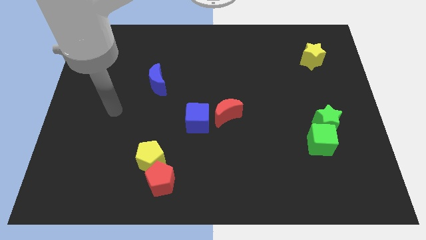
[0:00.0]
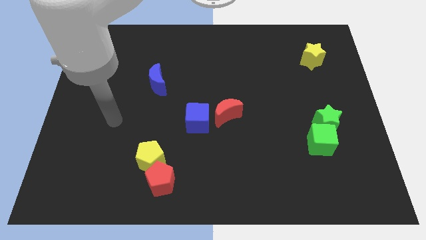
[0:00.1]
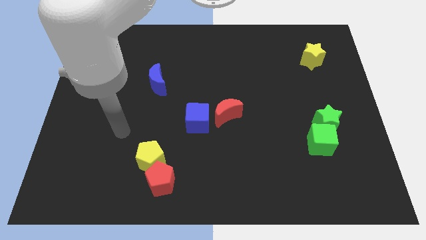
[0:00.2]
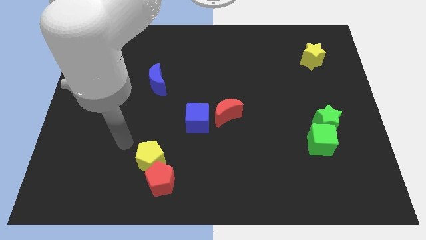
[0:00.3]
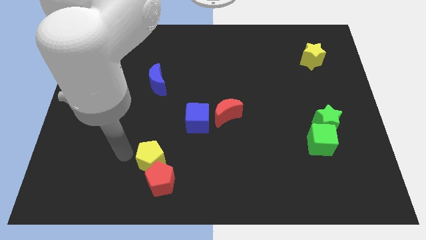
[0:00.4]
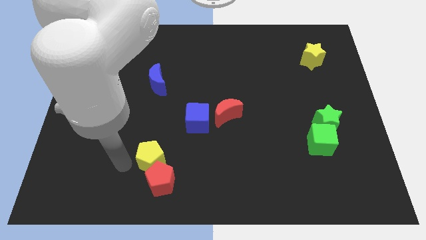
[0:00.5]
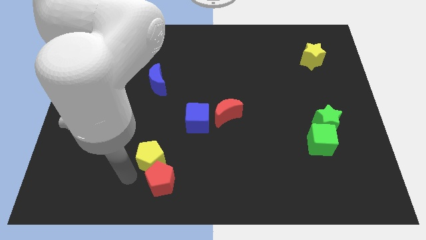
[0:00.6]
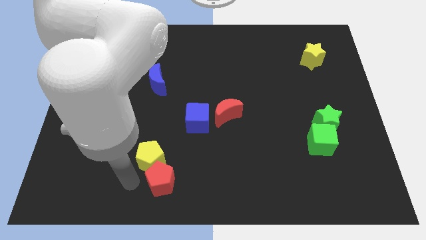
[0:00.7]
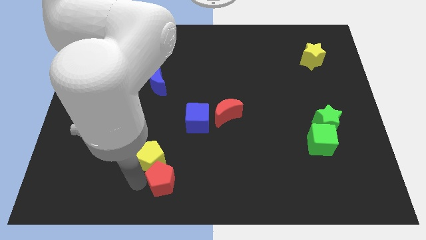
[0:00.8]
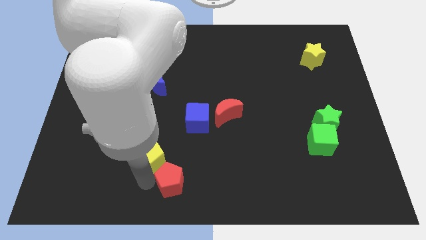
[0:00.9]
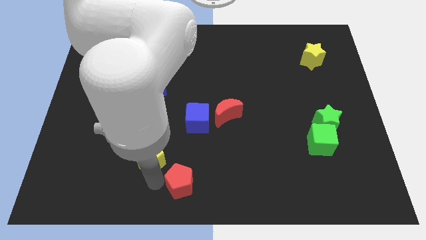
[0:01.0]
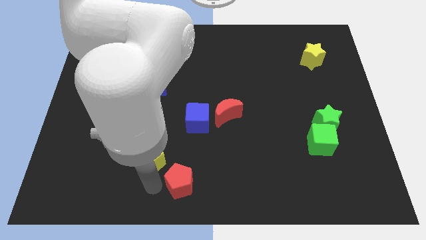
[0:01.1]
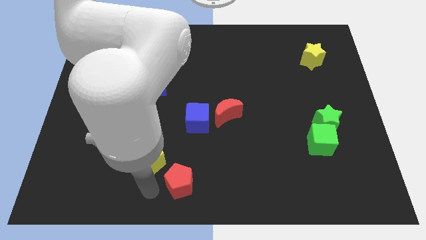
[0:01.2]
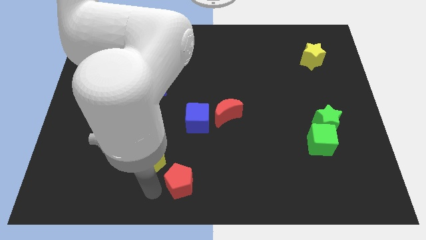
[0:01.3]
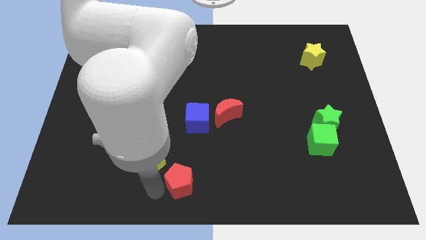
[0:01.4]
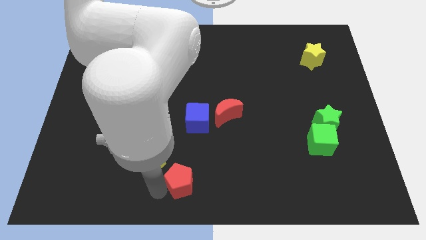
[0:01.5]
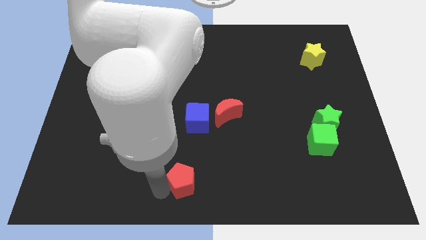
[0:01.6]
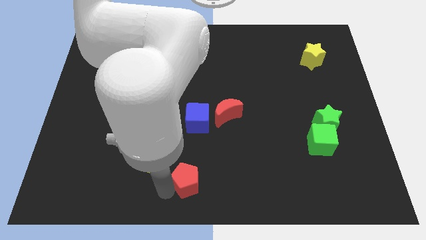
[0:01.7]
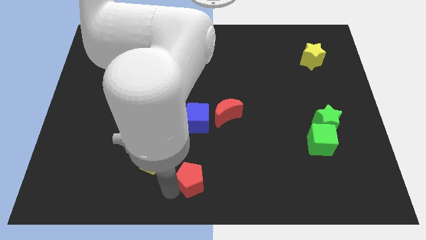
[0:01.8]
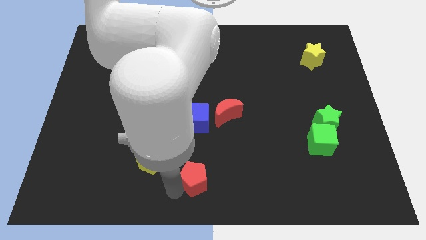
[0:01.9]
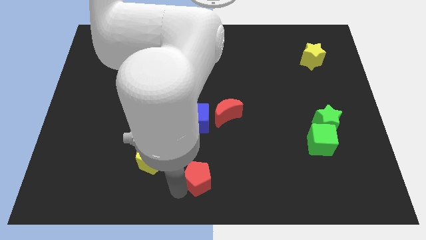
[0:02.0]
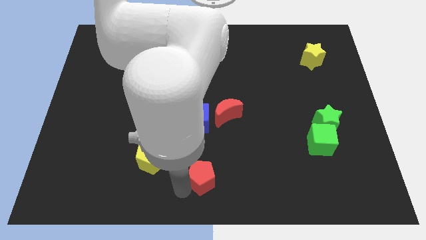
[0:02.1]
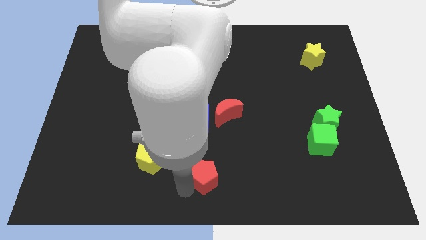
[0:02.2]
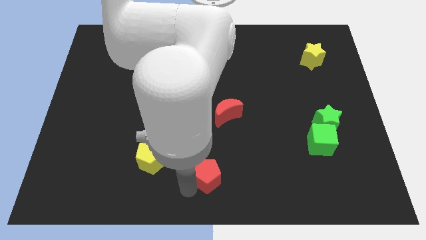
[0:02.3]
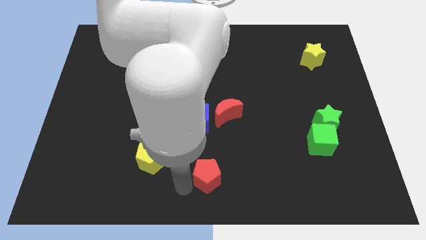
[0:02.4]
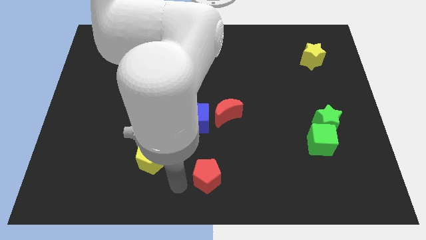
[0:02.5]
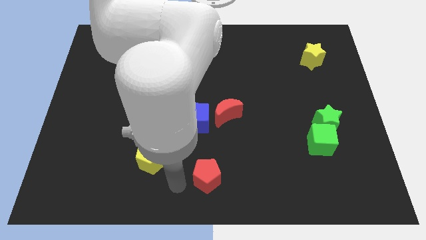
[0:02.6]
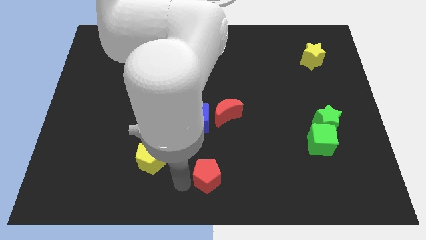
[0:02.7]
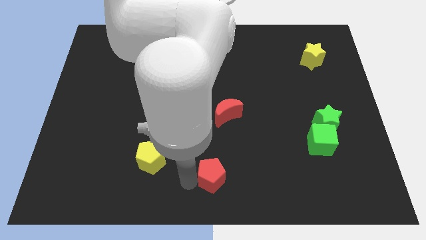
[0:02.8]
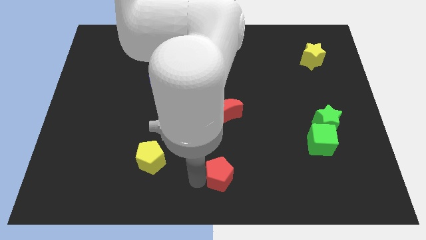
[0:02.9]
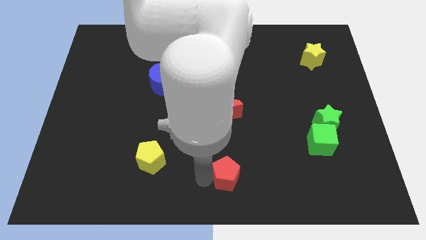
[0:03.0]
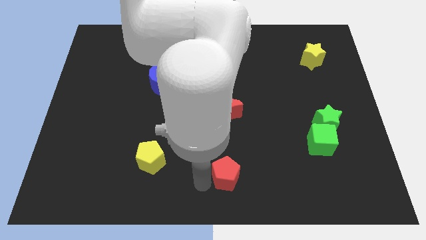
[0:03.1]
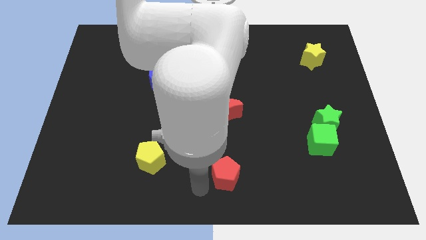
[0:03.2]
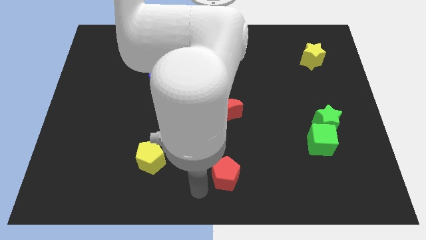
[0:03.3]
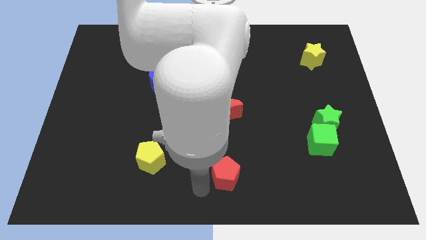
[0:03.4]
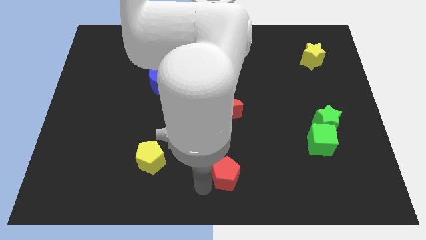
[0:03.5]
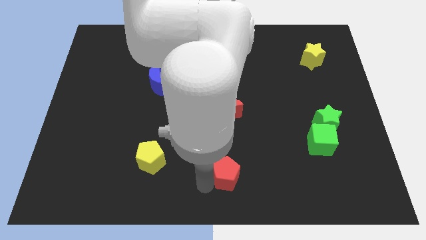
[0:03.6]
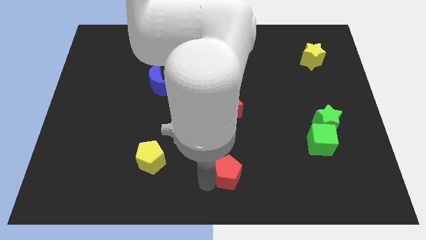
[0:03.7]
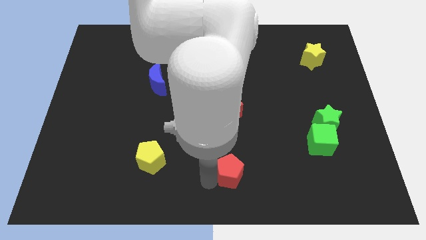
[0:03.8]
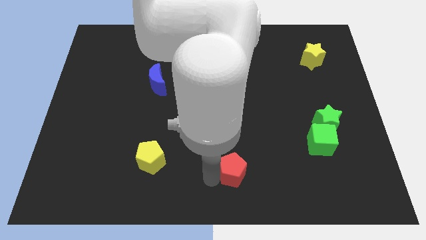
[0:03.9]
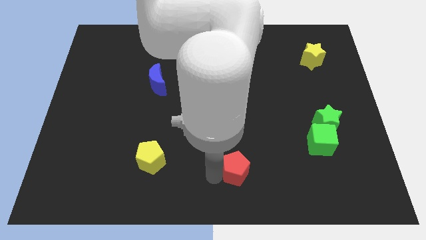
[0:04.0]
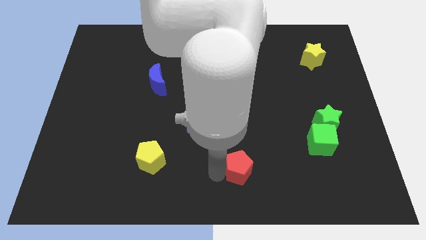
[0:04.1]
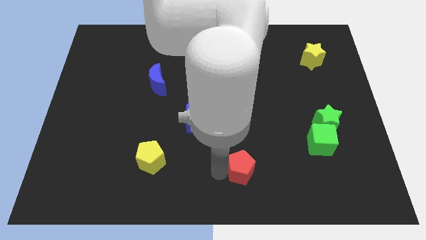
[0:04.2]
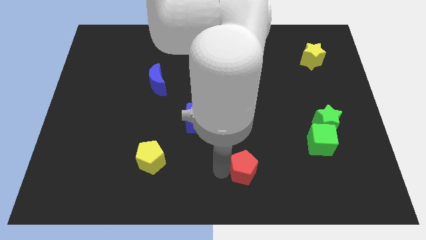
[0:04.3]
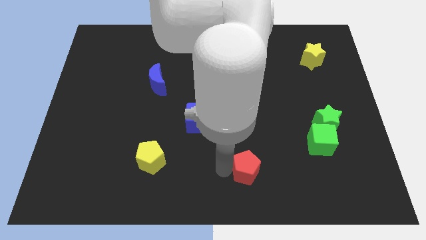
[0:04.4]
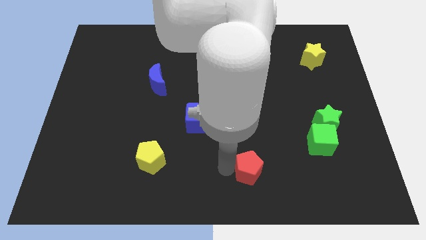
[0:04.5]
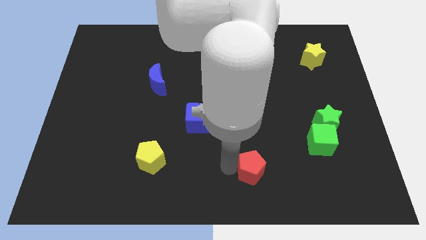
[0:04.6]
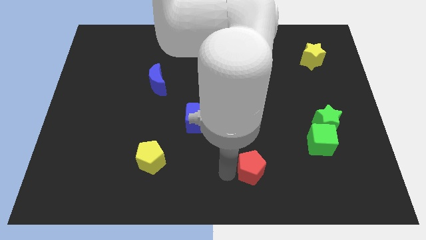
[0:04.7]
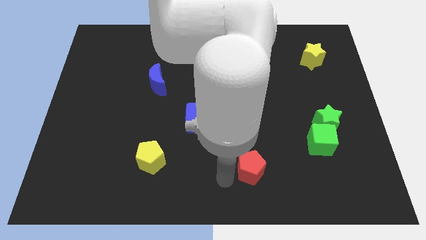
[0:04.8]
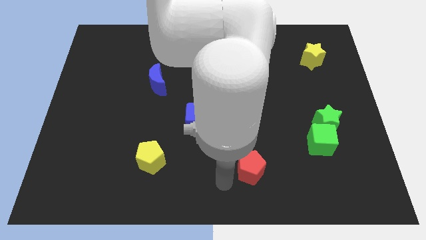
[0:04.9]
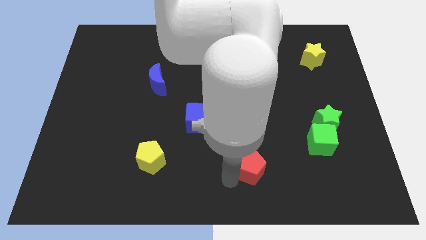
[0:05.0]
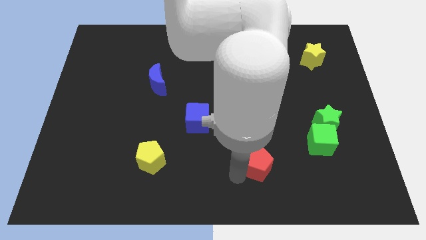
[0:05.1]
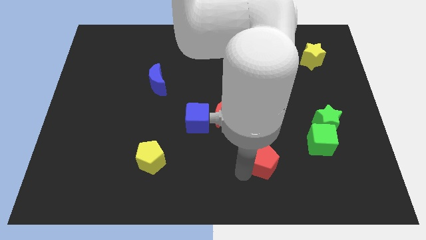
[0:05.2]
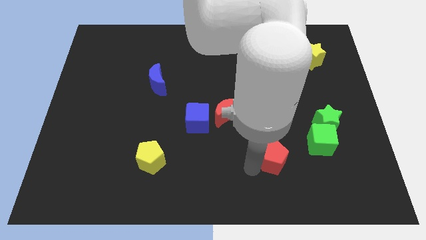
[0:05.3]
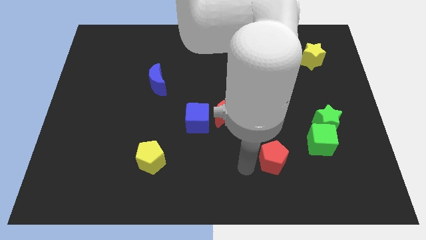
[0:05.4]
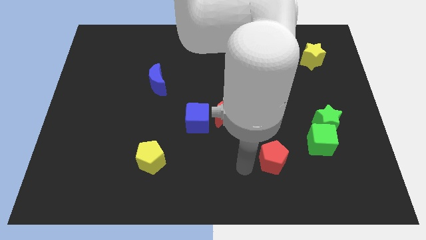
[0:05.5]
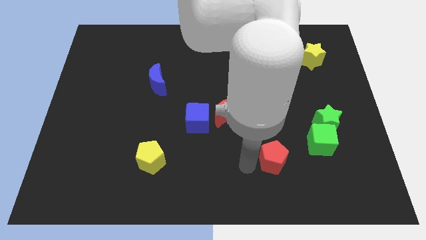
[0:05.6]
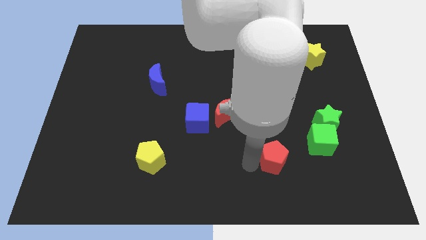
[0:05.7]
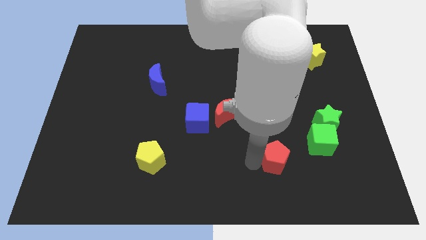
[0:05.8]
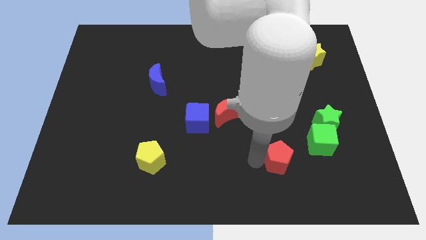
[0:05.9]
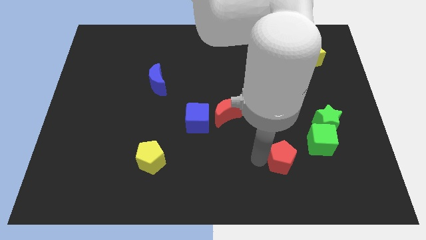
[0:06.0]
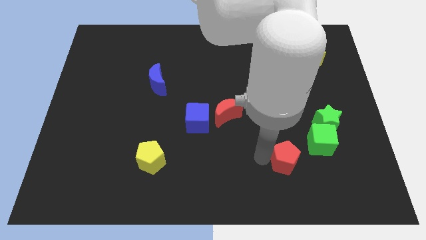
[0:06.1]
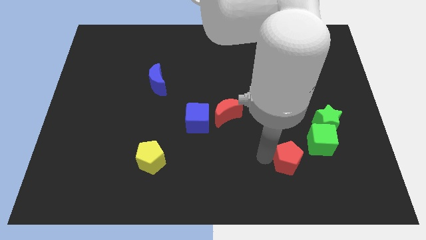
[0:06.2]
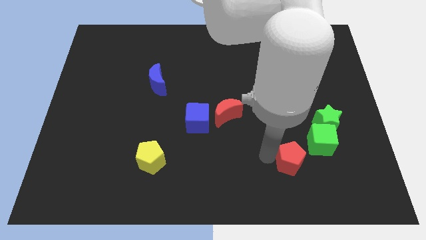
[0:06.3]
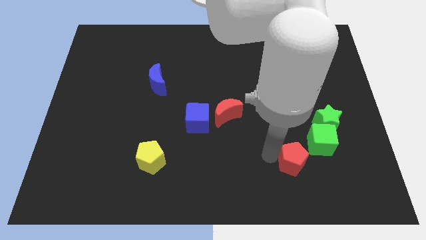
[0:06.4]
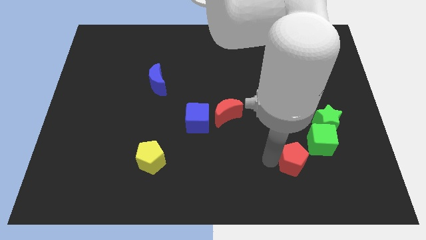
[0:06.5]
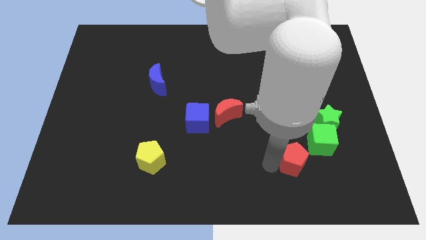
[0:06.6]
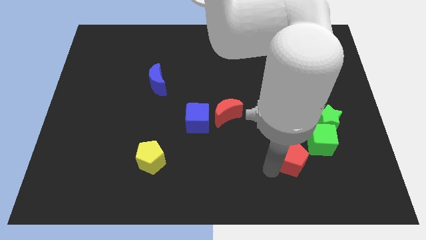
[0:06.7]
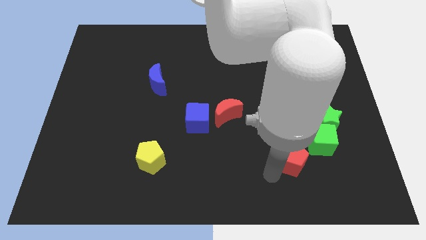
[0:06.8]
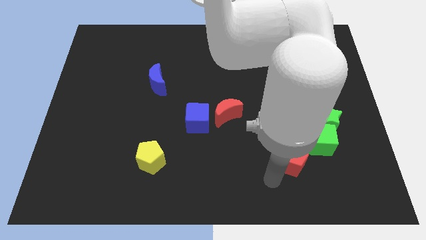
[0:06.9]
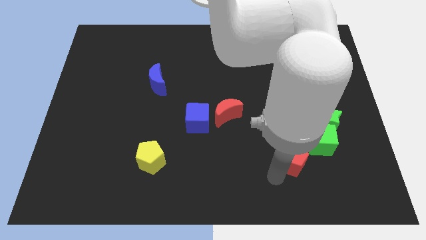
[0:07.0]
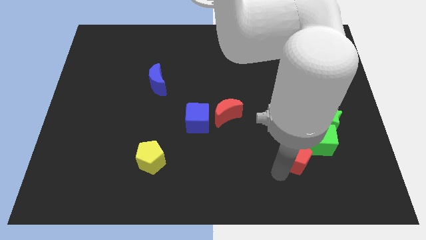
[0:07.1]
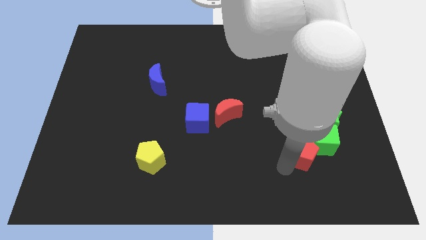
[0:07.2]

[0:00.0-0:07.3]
slide the red pentagon to the green cube
